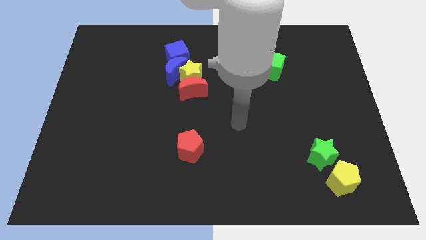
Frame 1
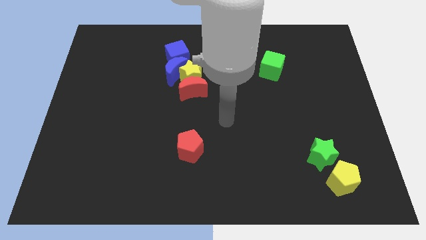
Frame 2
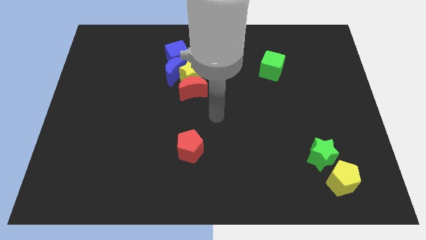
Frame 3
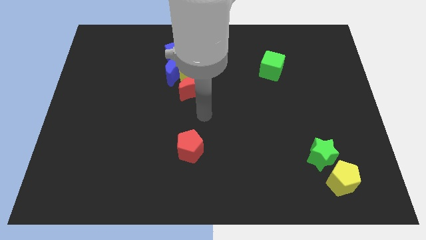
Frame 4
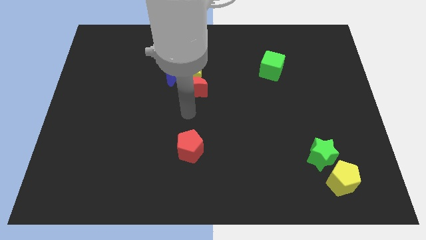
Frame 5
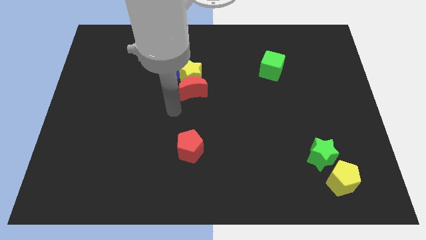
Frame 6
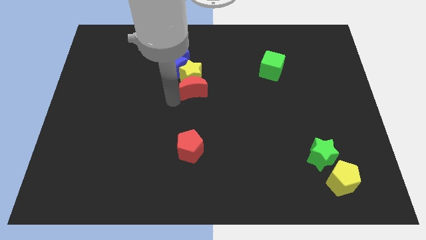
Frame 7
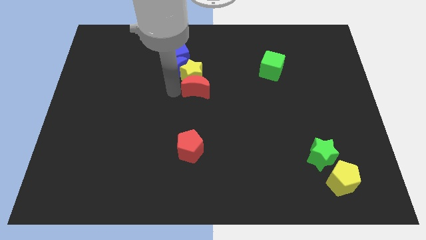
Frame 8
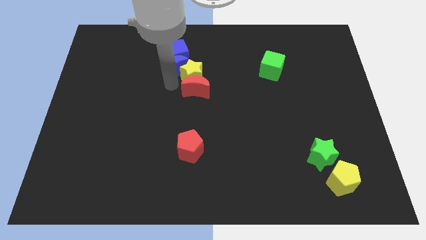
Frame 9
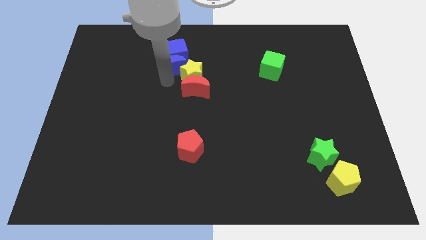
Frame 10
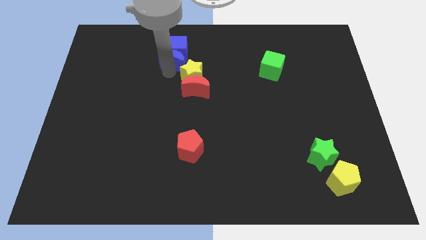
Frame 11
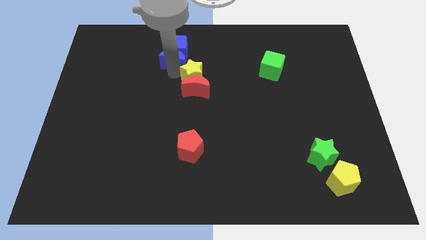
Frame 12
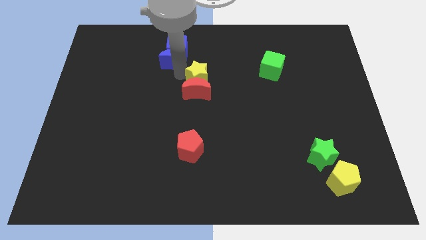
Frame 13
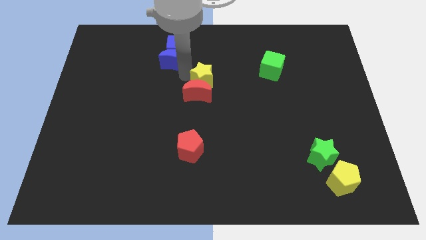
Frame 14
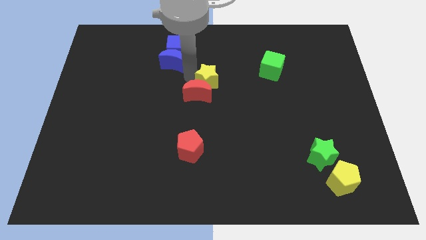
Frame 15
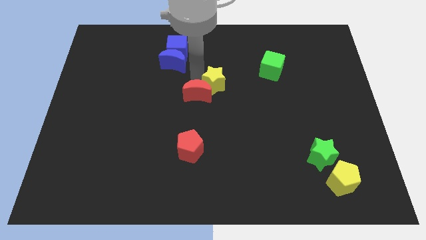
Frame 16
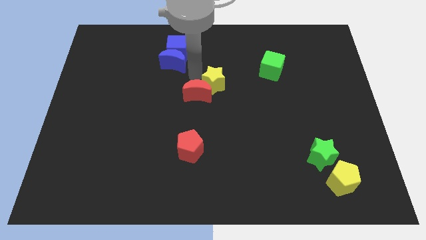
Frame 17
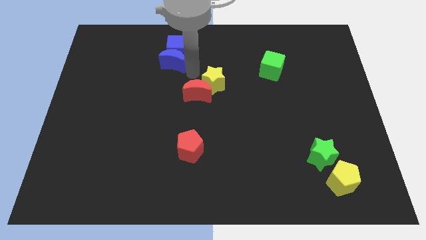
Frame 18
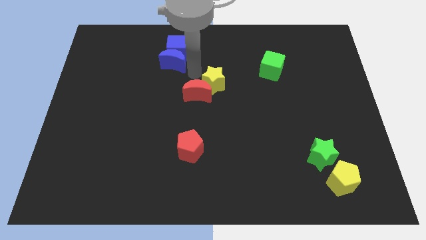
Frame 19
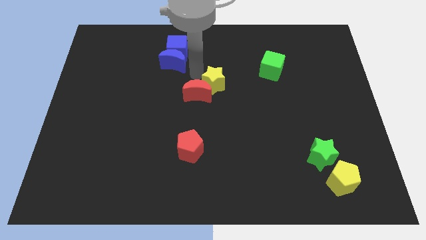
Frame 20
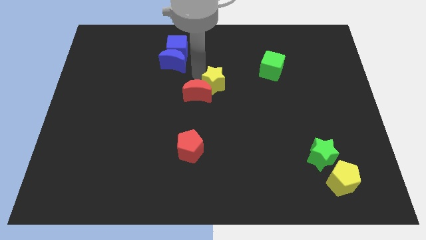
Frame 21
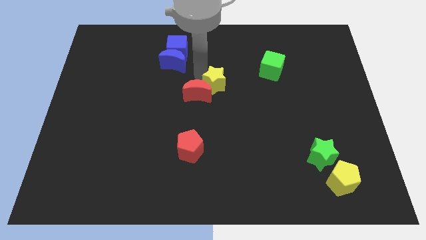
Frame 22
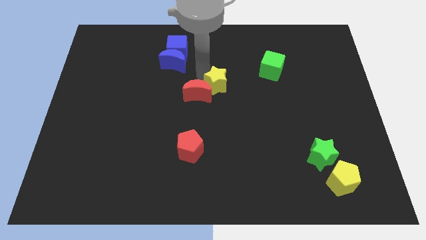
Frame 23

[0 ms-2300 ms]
separate the yellow star from the red moon, blue moon, and blue cube

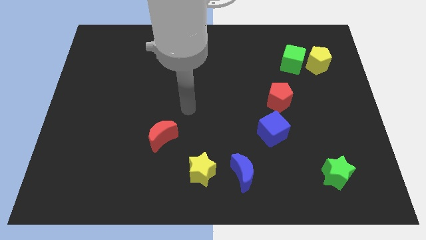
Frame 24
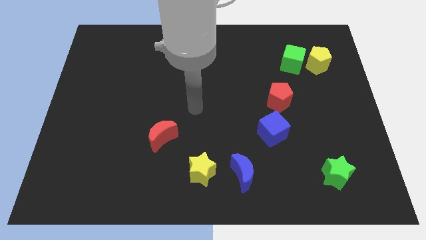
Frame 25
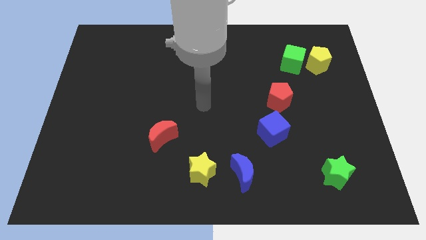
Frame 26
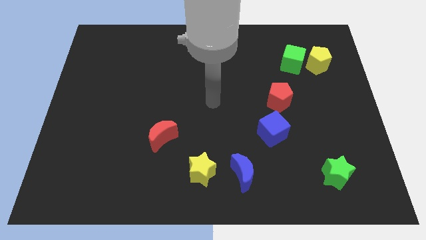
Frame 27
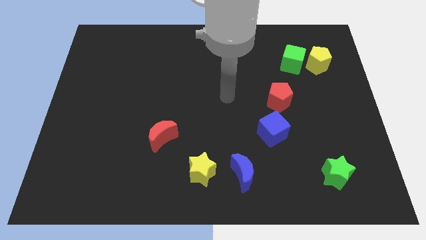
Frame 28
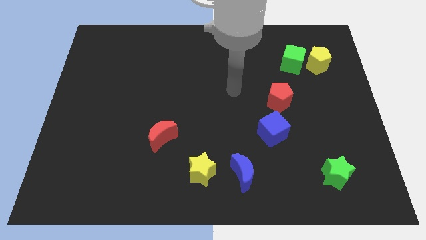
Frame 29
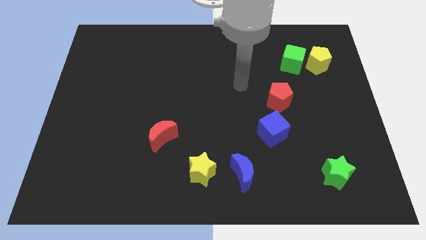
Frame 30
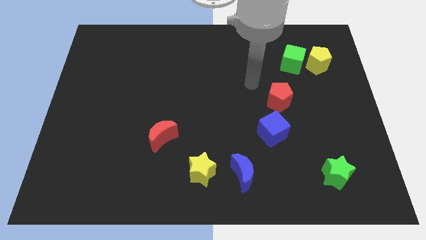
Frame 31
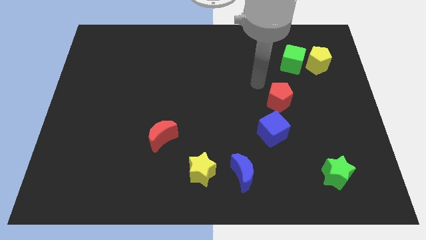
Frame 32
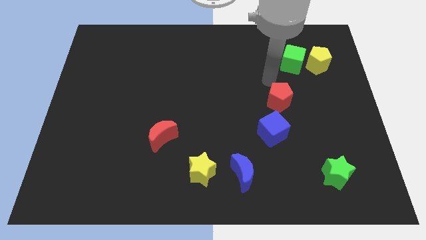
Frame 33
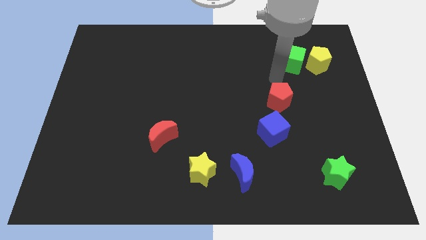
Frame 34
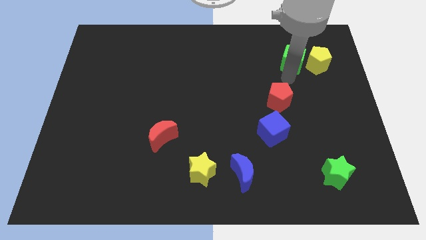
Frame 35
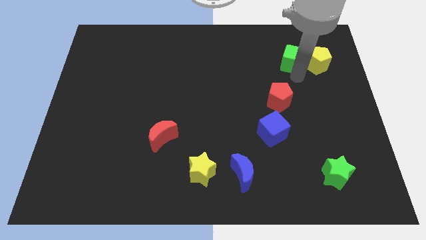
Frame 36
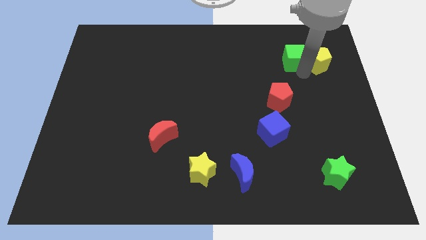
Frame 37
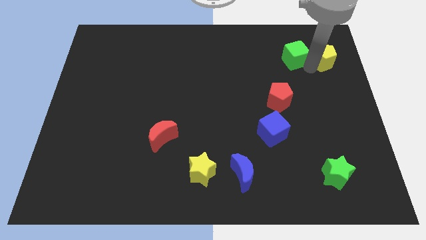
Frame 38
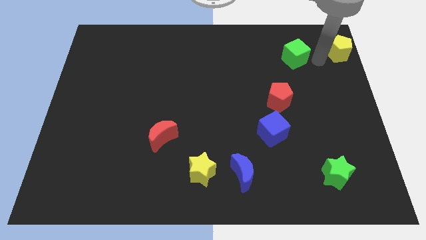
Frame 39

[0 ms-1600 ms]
separate the green cube from the yellow pentagon

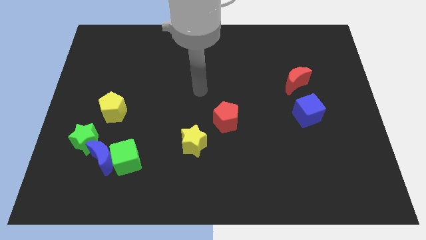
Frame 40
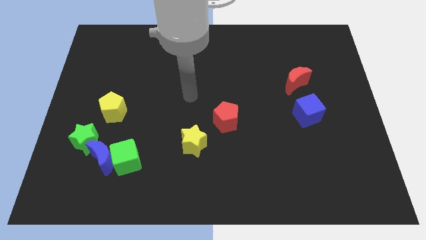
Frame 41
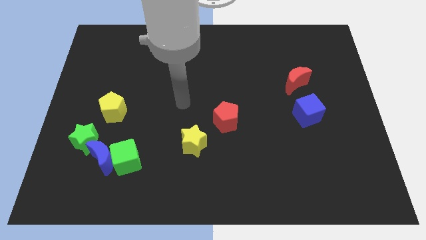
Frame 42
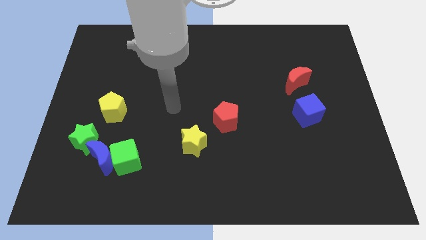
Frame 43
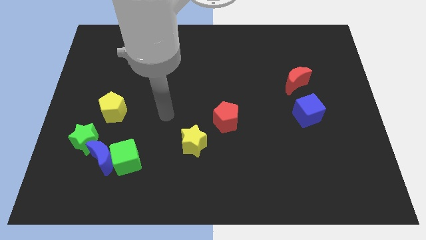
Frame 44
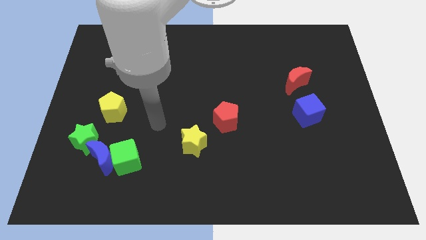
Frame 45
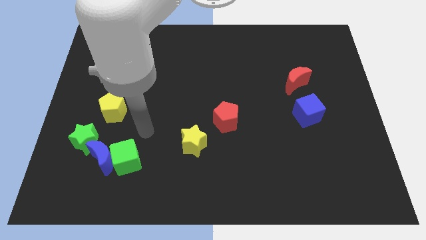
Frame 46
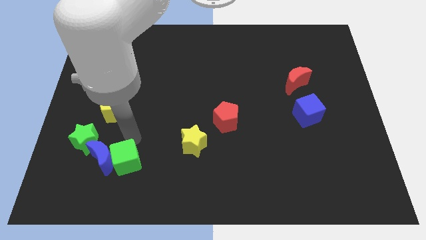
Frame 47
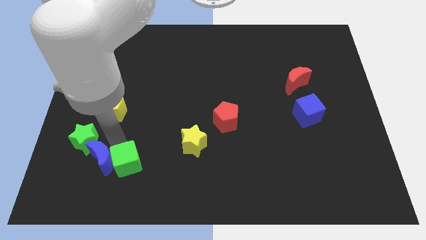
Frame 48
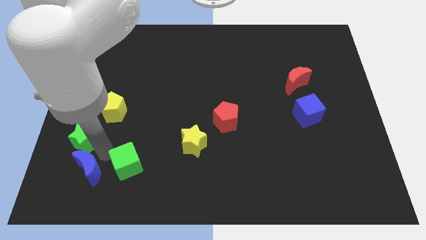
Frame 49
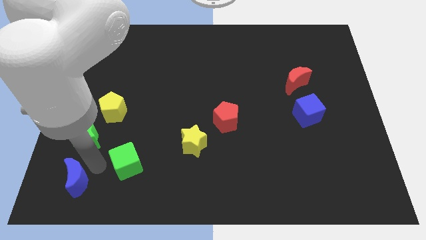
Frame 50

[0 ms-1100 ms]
move the green cube away from the blue moon

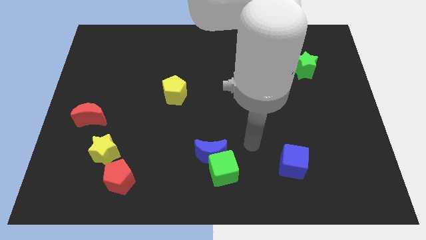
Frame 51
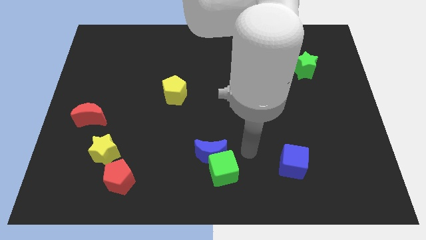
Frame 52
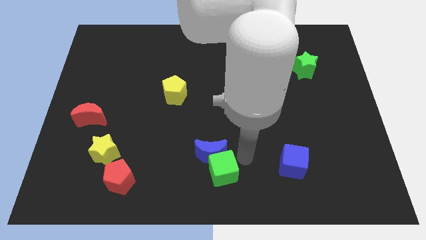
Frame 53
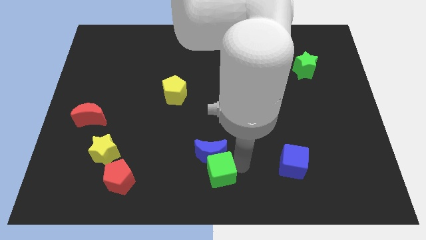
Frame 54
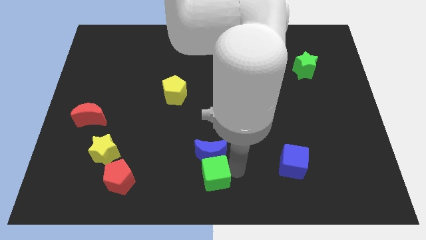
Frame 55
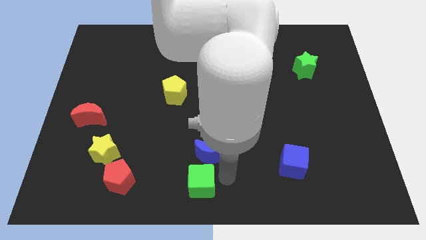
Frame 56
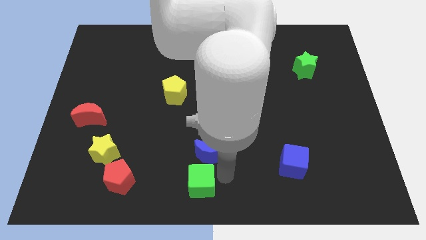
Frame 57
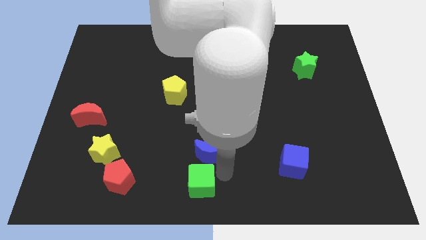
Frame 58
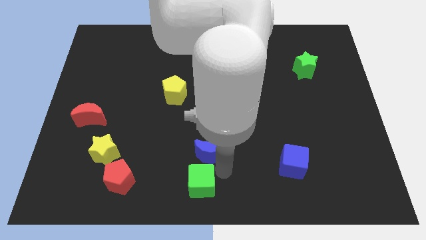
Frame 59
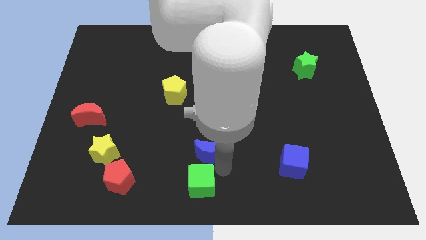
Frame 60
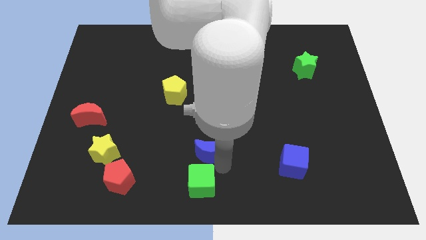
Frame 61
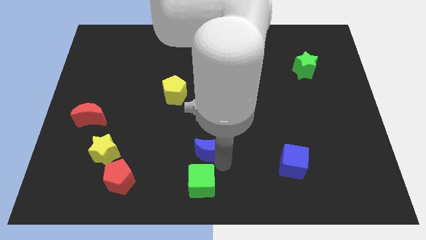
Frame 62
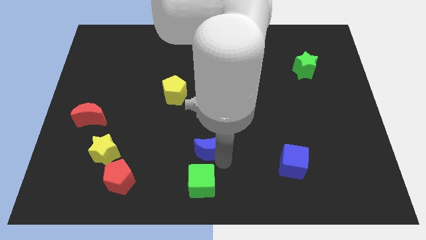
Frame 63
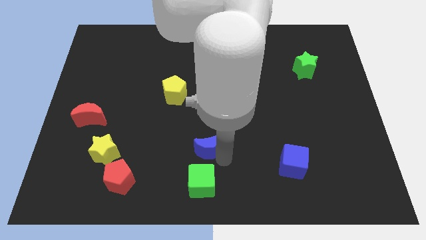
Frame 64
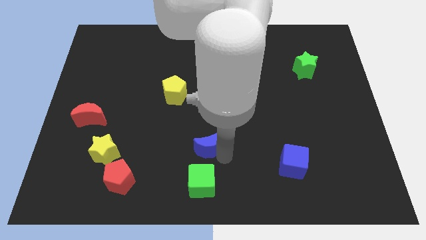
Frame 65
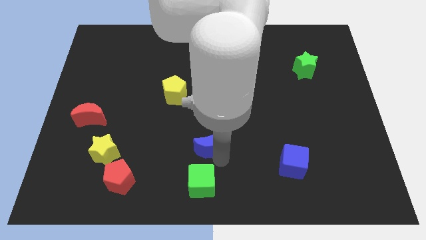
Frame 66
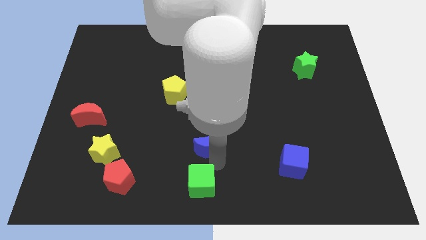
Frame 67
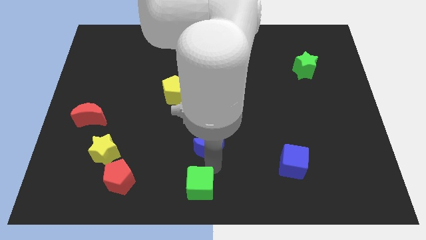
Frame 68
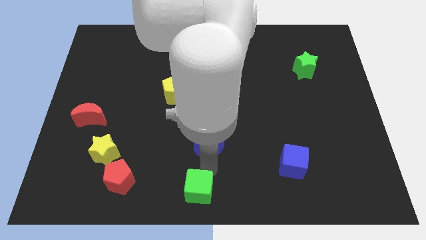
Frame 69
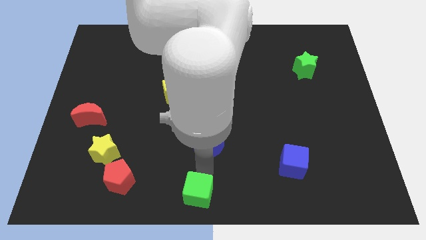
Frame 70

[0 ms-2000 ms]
separate the blue moon from the green cube

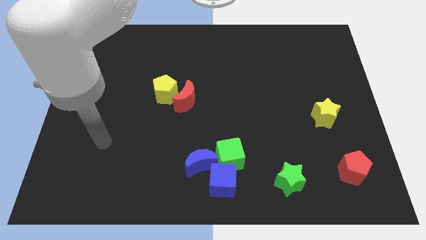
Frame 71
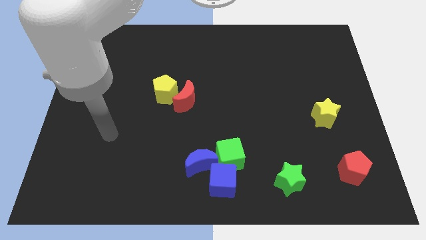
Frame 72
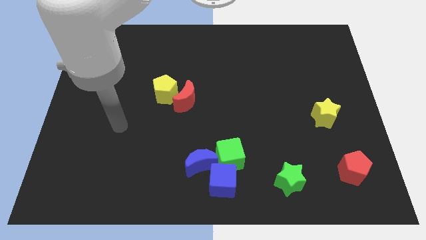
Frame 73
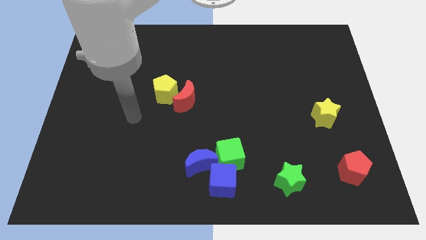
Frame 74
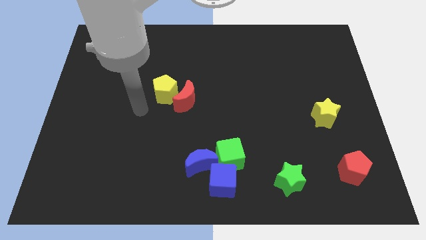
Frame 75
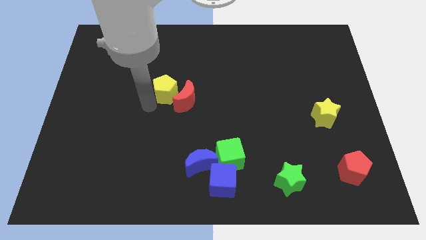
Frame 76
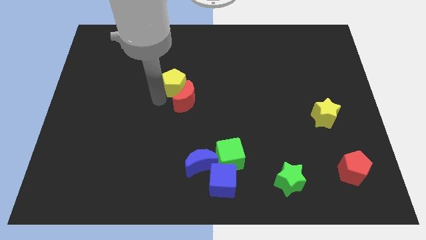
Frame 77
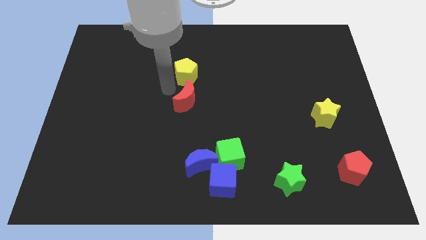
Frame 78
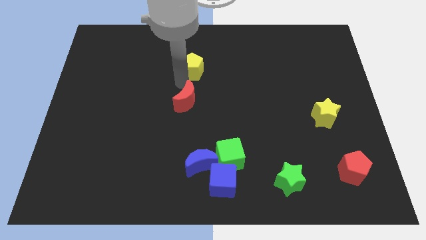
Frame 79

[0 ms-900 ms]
pull the red moon apart from the yellow pentagon

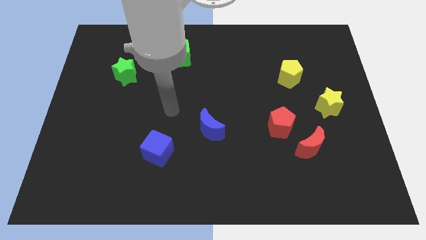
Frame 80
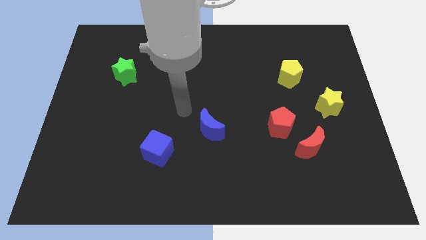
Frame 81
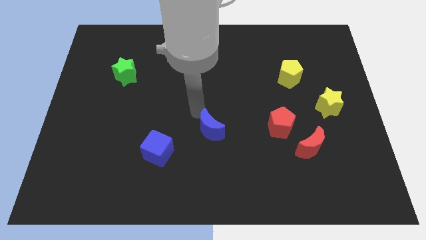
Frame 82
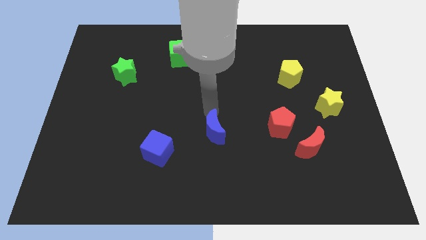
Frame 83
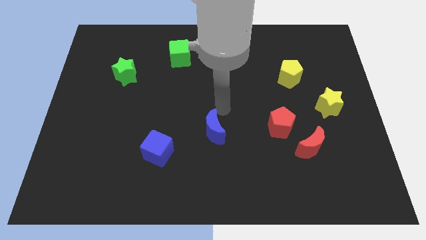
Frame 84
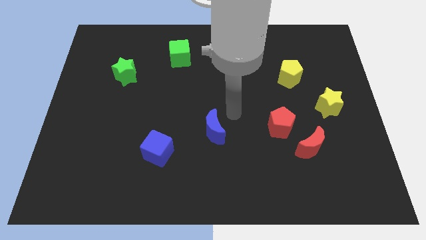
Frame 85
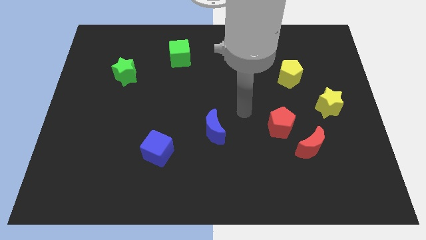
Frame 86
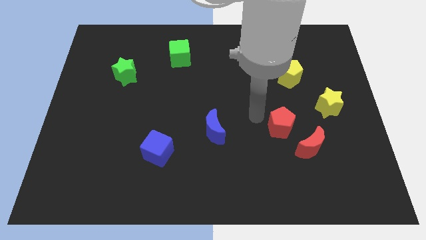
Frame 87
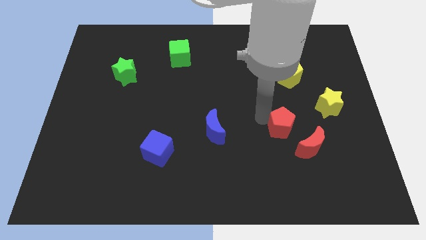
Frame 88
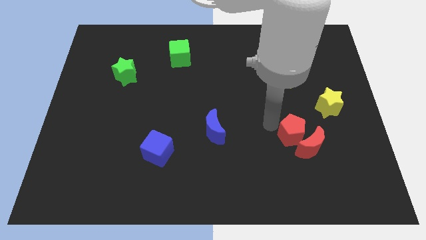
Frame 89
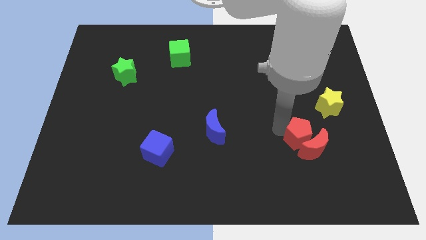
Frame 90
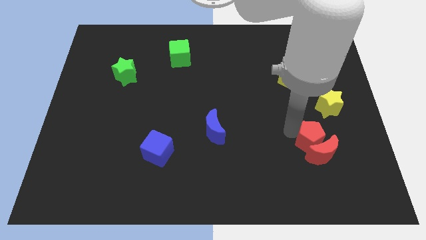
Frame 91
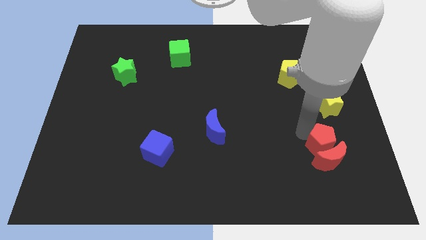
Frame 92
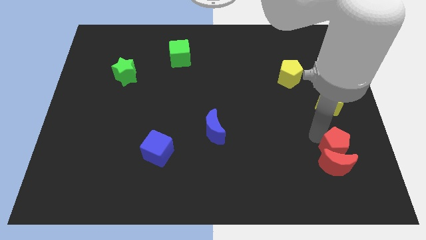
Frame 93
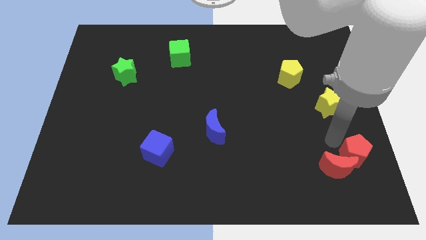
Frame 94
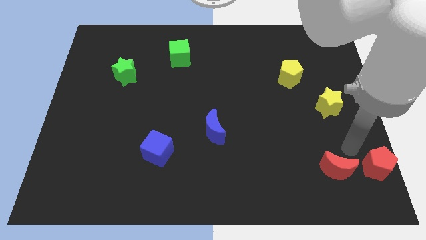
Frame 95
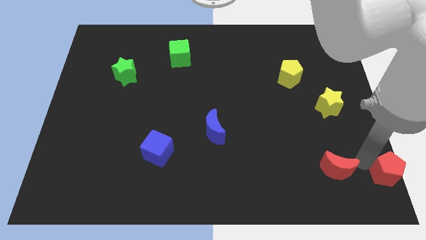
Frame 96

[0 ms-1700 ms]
separate the red moon from the red pentagon
